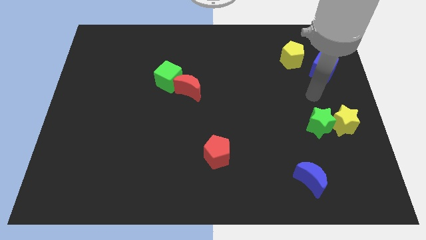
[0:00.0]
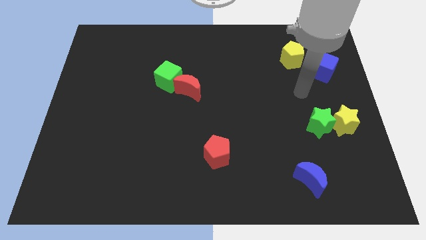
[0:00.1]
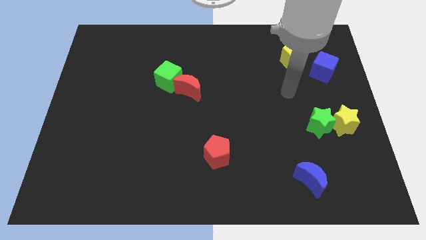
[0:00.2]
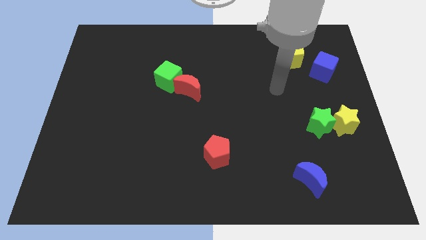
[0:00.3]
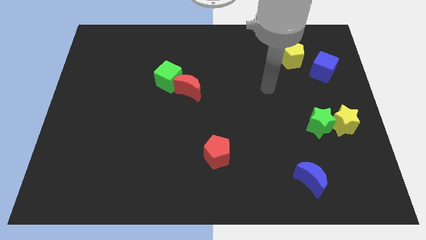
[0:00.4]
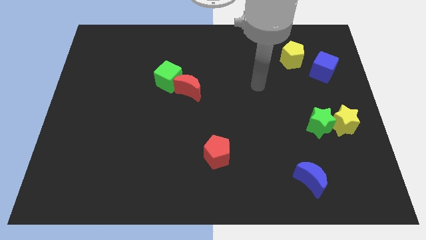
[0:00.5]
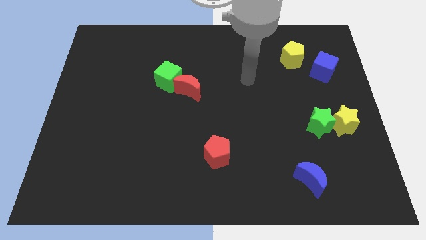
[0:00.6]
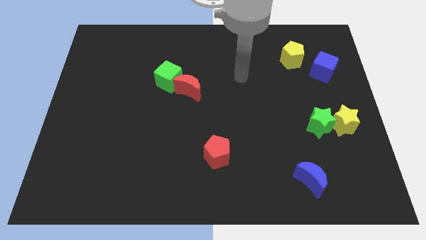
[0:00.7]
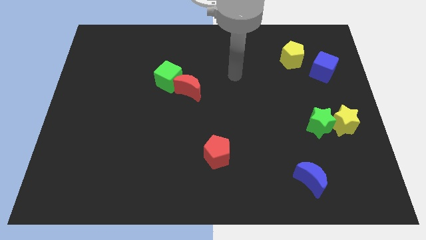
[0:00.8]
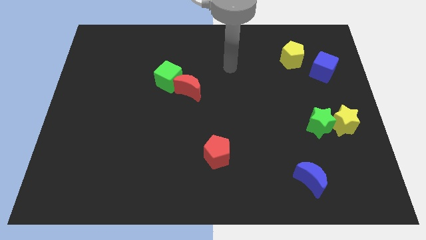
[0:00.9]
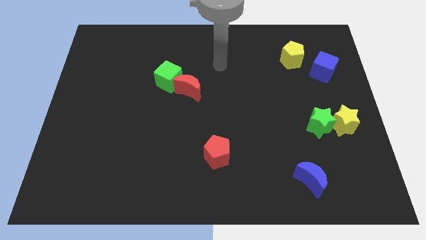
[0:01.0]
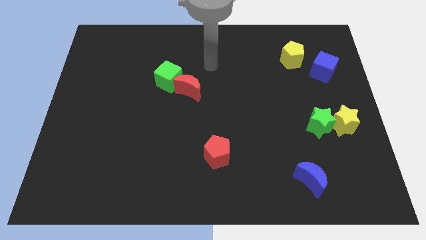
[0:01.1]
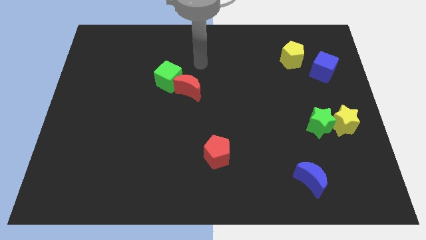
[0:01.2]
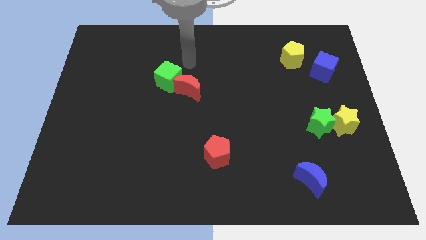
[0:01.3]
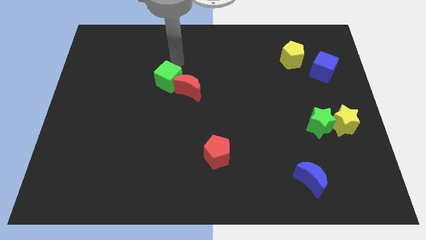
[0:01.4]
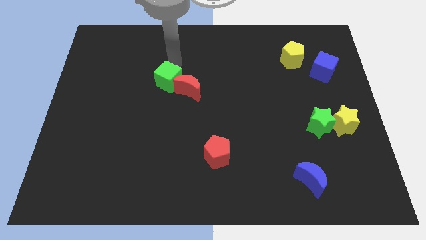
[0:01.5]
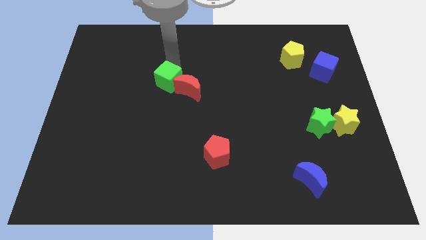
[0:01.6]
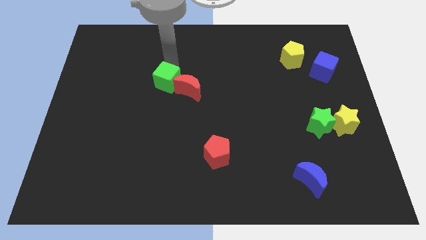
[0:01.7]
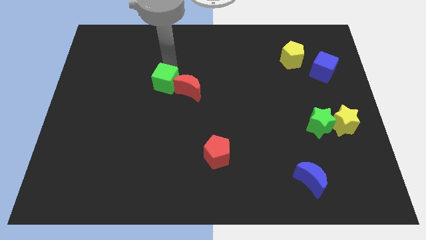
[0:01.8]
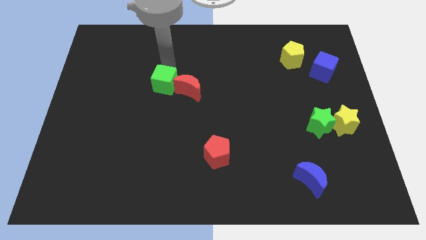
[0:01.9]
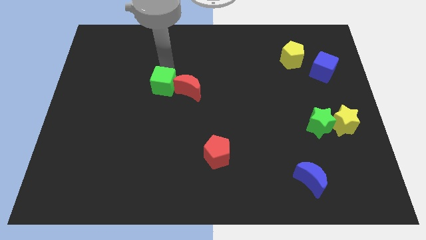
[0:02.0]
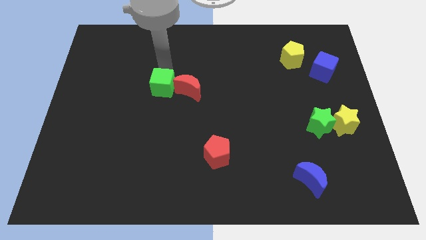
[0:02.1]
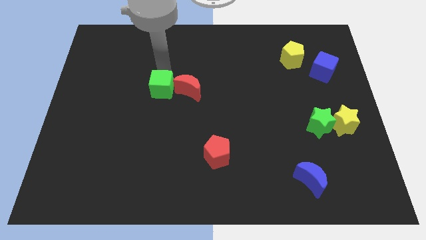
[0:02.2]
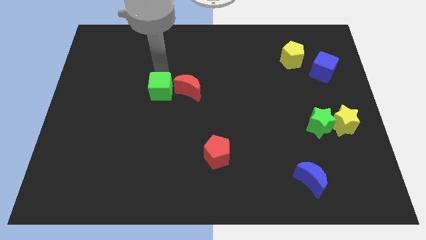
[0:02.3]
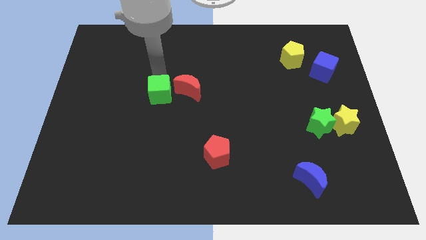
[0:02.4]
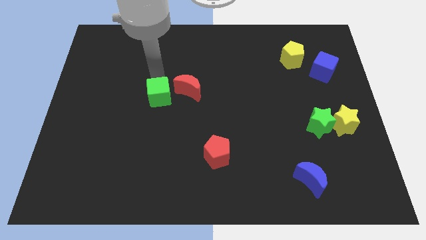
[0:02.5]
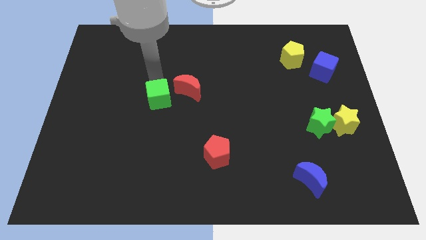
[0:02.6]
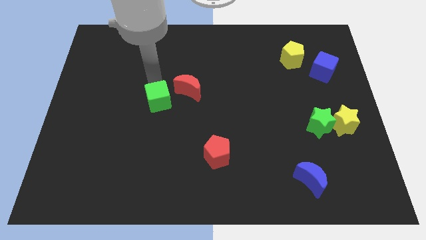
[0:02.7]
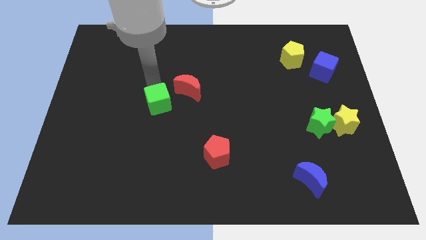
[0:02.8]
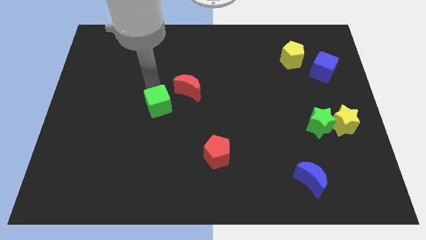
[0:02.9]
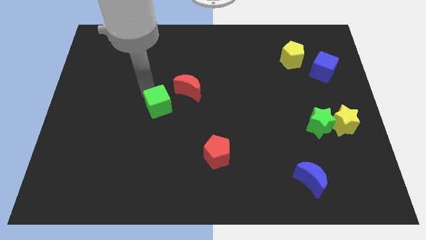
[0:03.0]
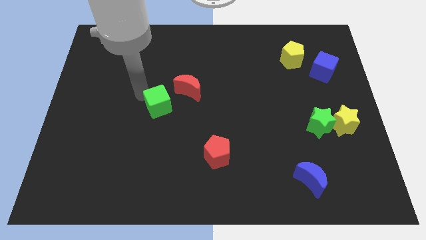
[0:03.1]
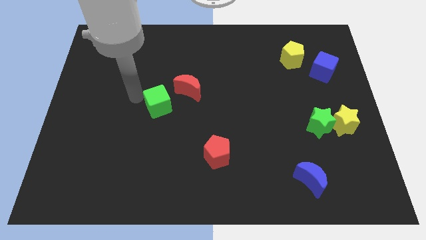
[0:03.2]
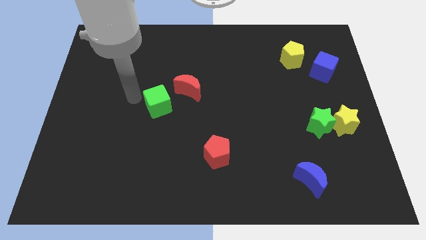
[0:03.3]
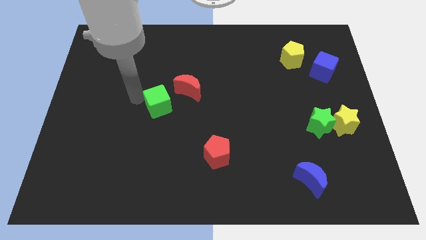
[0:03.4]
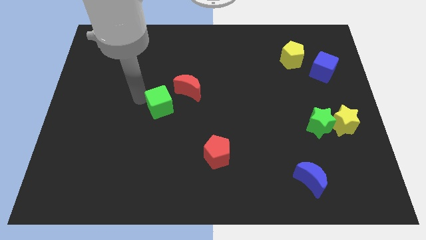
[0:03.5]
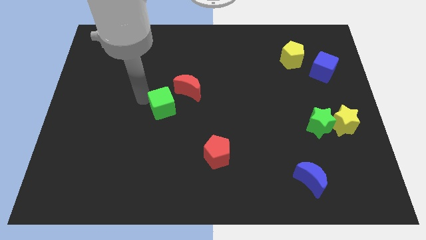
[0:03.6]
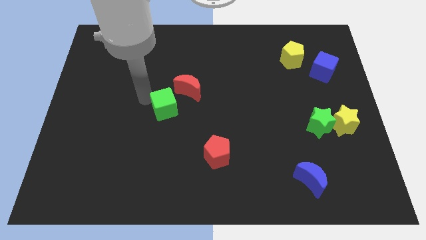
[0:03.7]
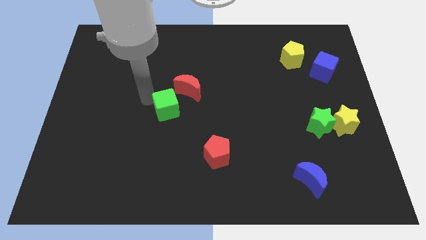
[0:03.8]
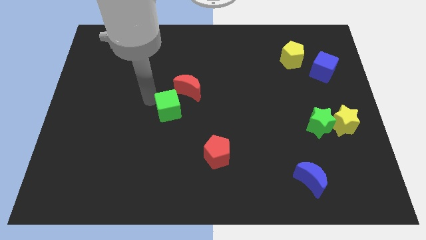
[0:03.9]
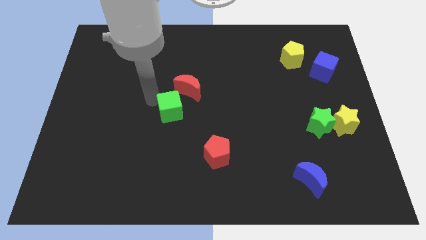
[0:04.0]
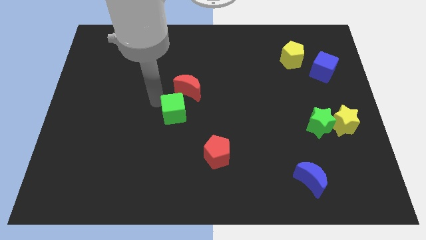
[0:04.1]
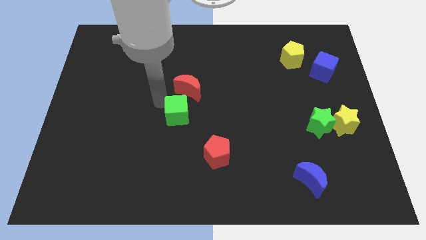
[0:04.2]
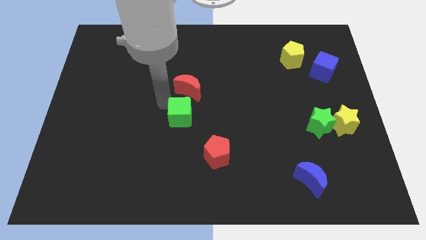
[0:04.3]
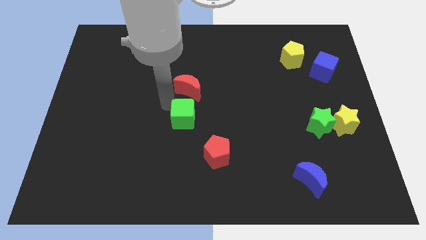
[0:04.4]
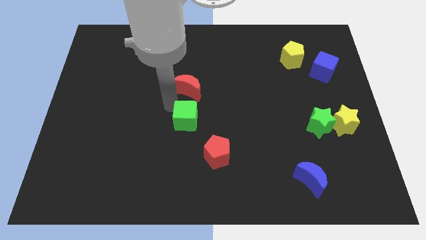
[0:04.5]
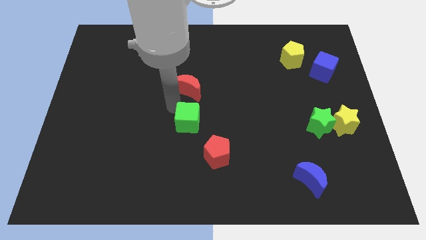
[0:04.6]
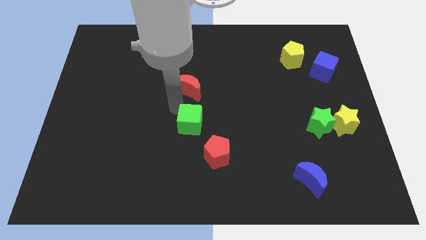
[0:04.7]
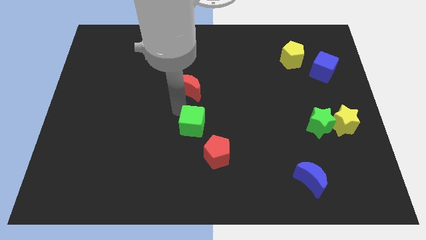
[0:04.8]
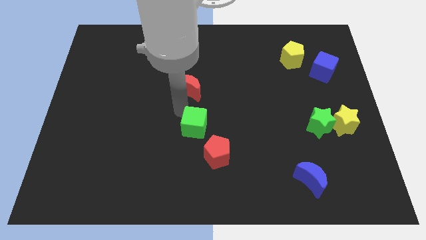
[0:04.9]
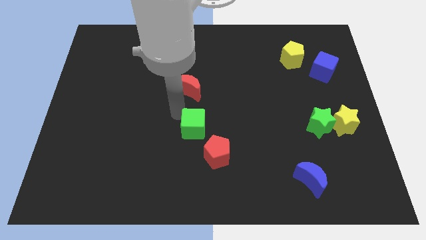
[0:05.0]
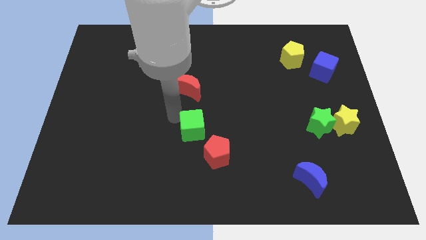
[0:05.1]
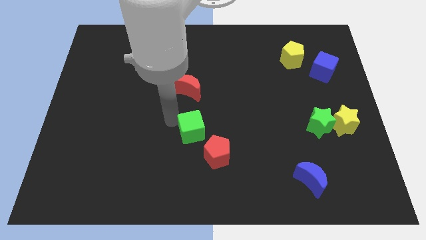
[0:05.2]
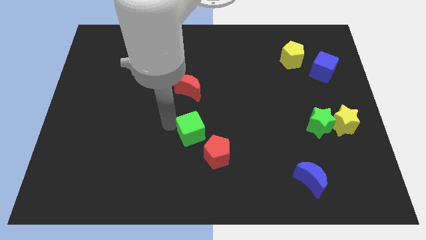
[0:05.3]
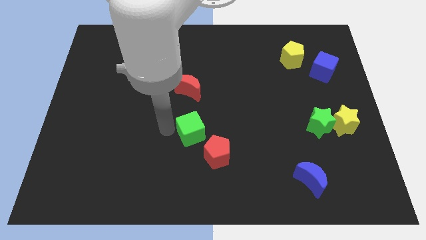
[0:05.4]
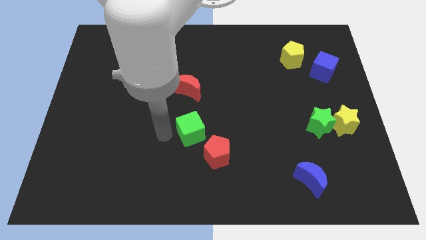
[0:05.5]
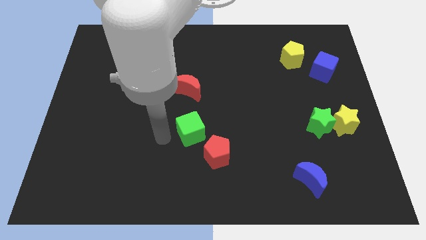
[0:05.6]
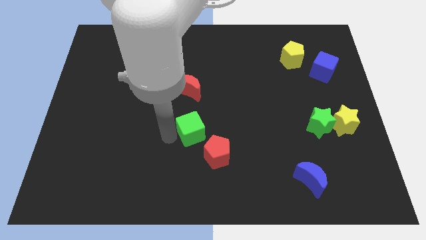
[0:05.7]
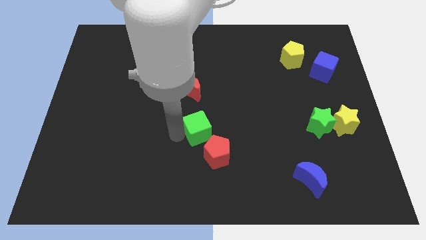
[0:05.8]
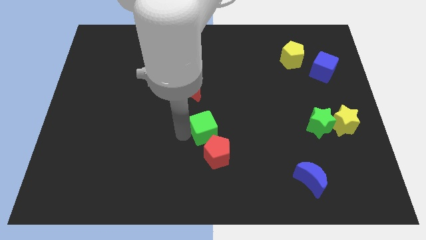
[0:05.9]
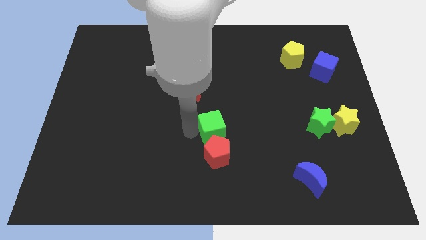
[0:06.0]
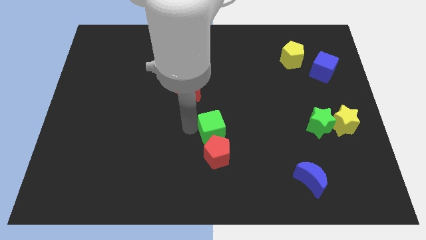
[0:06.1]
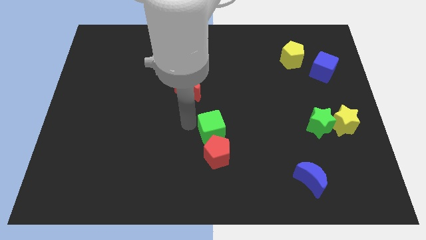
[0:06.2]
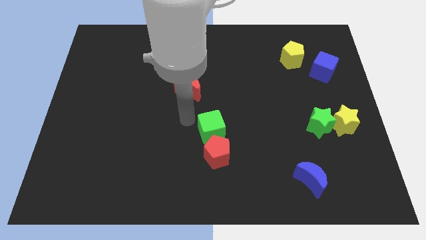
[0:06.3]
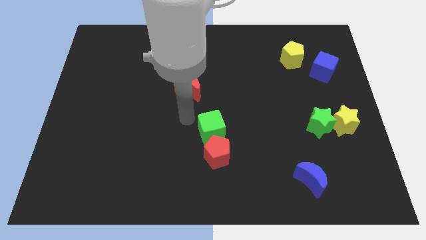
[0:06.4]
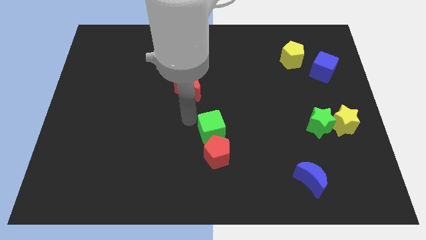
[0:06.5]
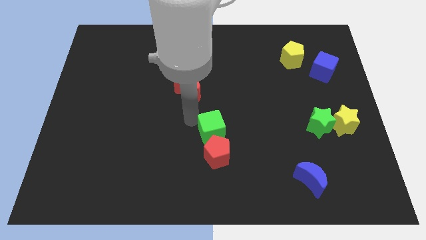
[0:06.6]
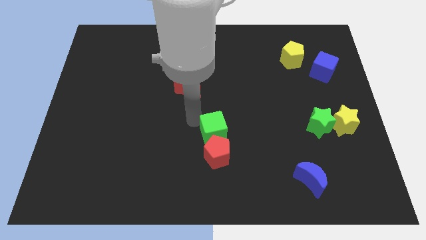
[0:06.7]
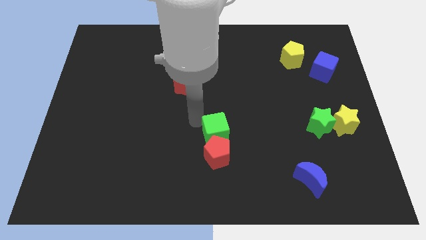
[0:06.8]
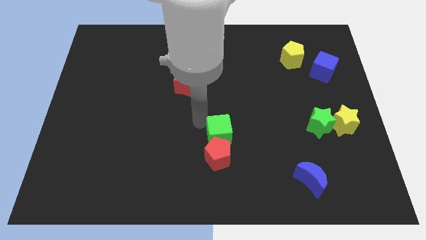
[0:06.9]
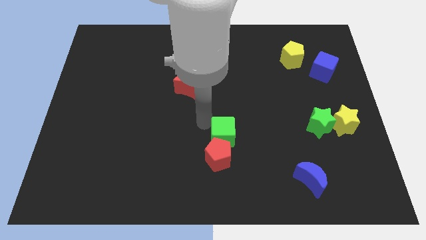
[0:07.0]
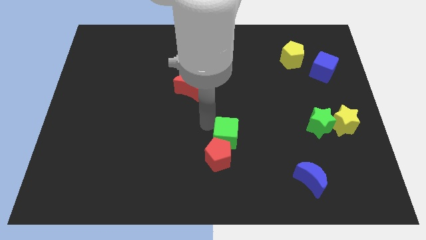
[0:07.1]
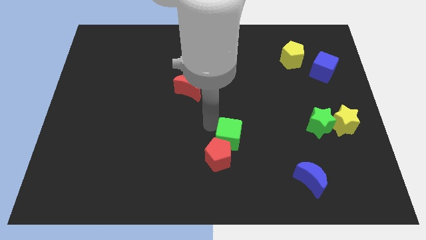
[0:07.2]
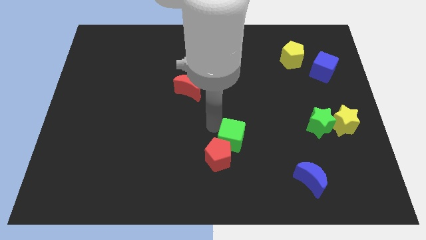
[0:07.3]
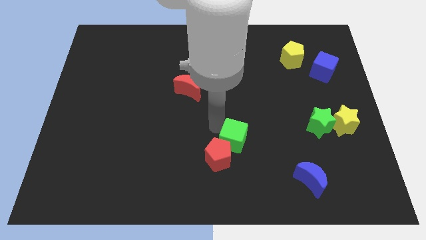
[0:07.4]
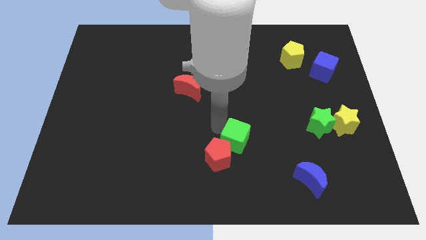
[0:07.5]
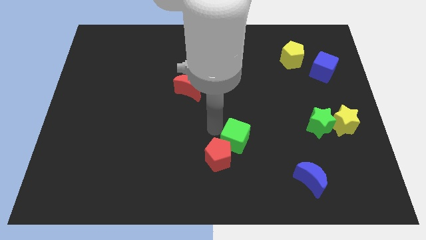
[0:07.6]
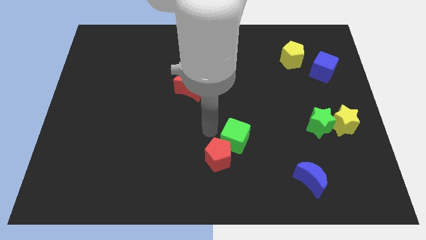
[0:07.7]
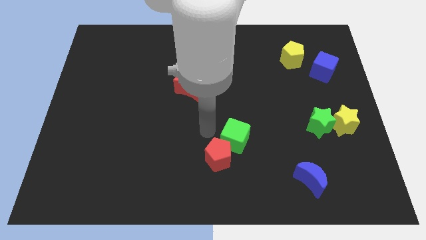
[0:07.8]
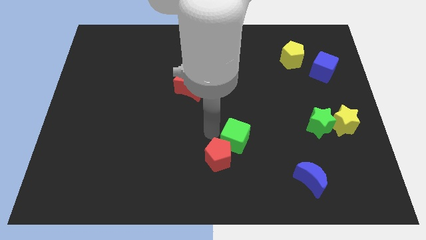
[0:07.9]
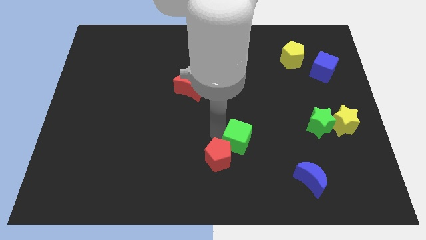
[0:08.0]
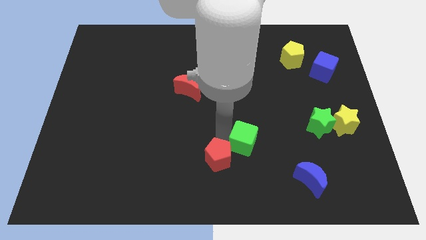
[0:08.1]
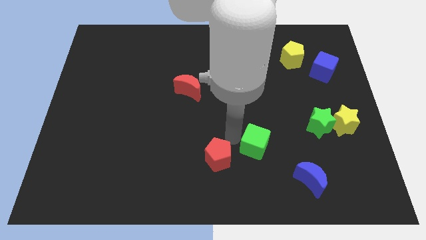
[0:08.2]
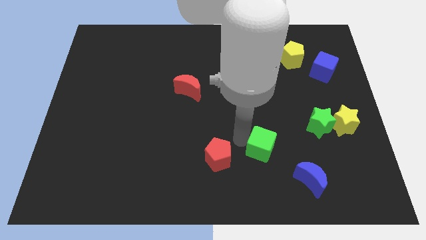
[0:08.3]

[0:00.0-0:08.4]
slide the green cube to the top left side of the blue moon
